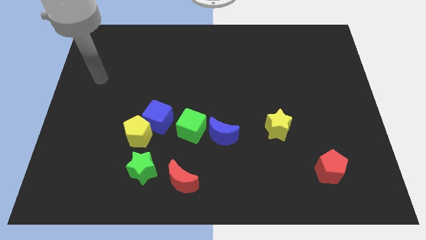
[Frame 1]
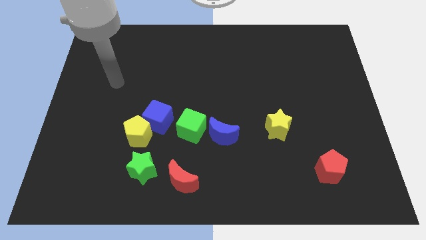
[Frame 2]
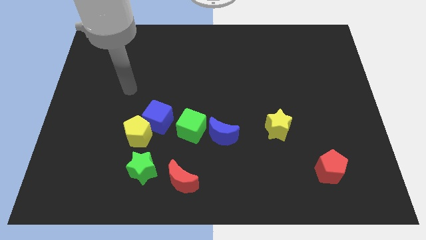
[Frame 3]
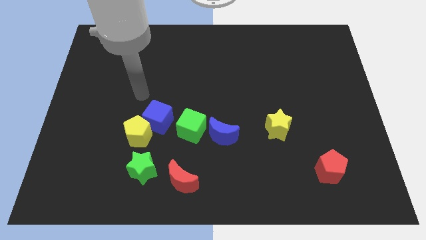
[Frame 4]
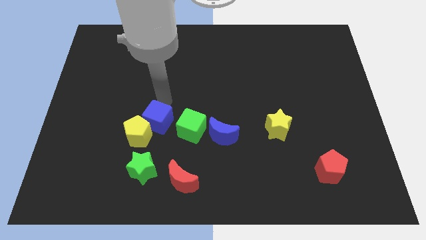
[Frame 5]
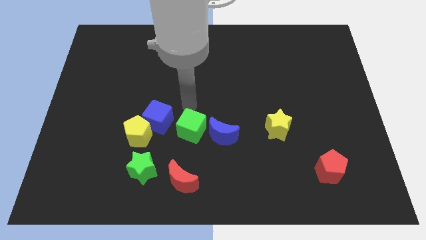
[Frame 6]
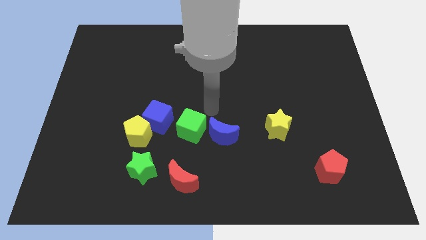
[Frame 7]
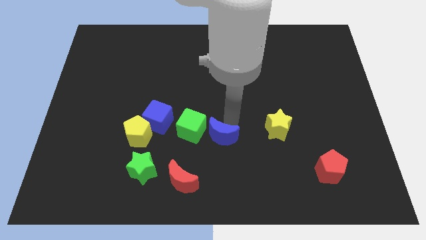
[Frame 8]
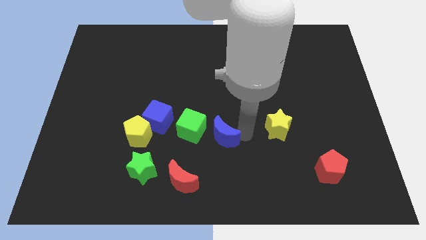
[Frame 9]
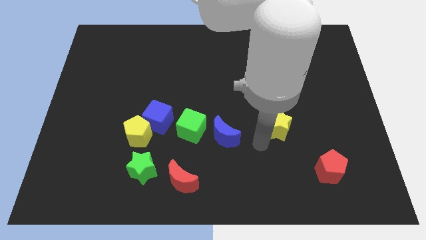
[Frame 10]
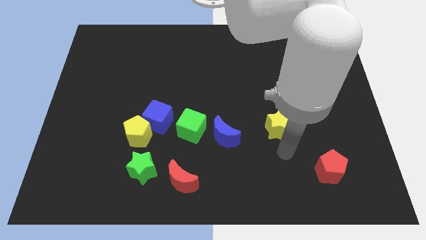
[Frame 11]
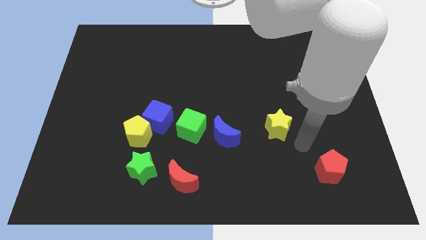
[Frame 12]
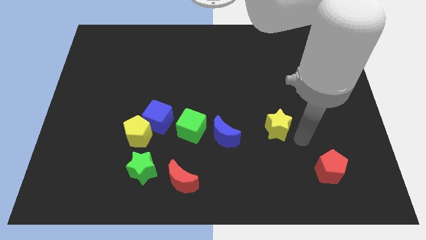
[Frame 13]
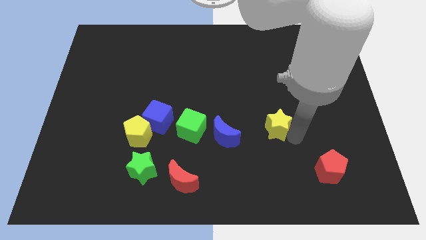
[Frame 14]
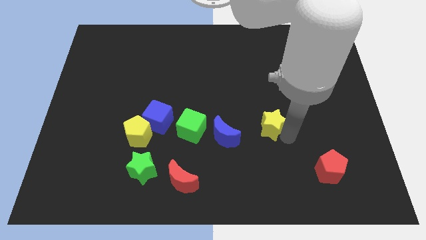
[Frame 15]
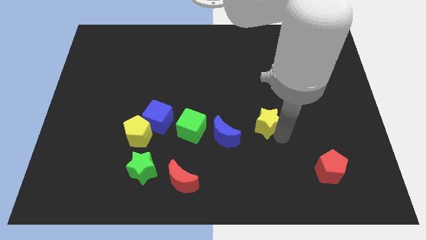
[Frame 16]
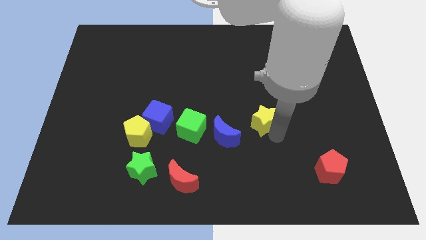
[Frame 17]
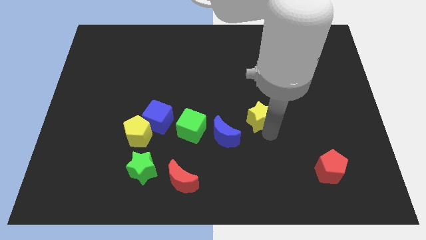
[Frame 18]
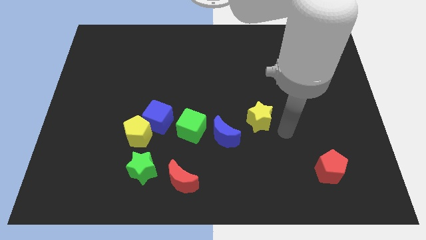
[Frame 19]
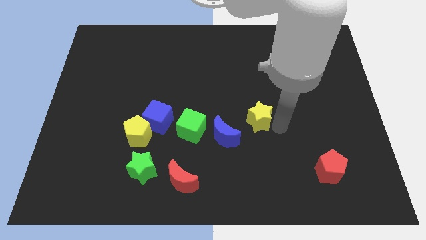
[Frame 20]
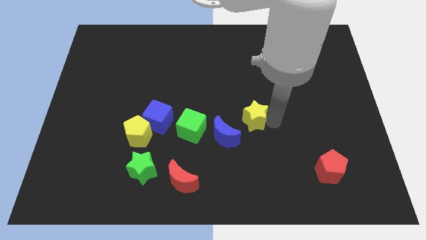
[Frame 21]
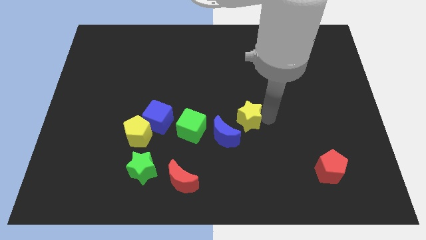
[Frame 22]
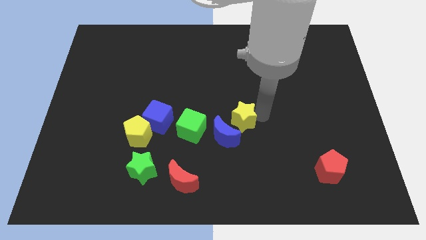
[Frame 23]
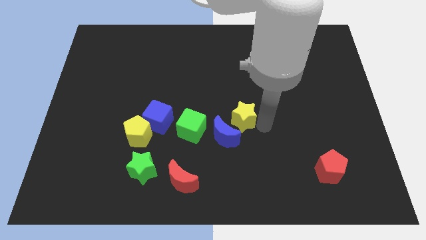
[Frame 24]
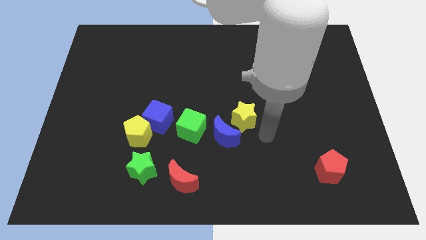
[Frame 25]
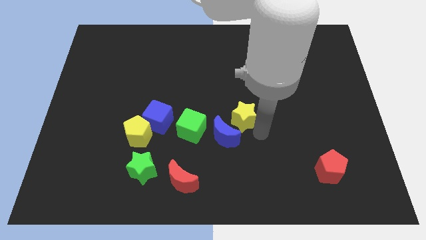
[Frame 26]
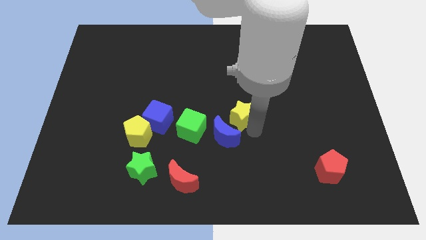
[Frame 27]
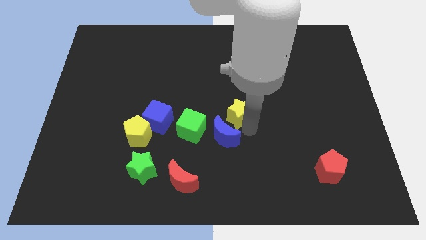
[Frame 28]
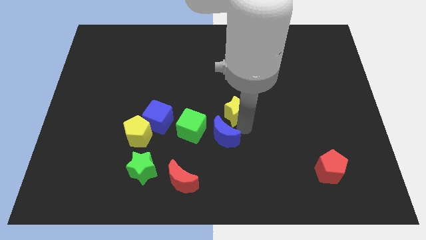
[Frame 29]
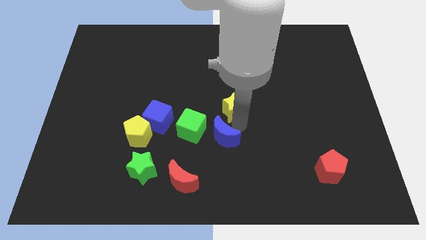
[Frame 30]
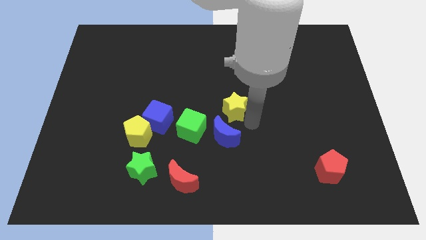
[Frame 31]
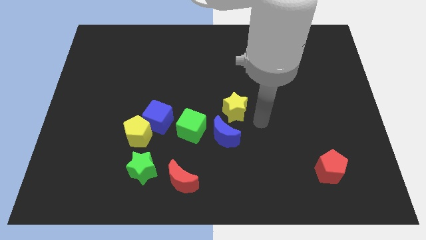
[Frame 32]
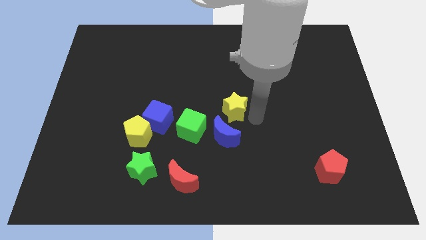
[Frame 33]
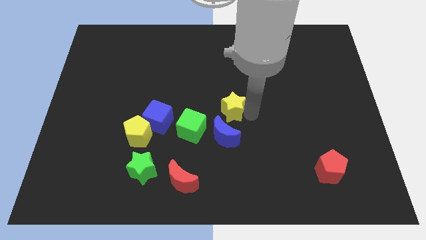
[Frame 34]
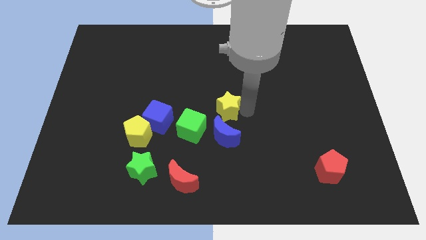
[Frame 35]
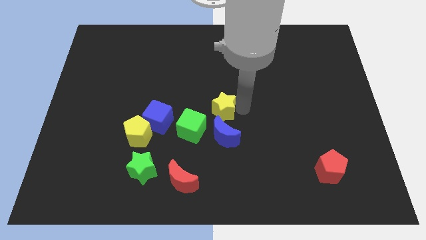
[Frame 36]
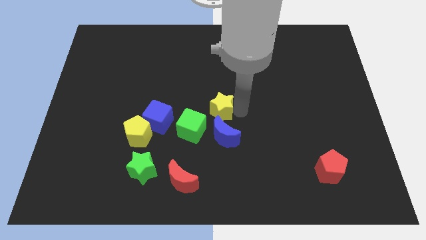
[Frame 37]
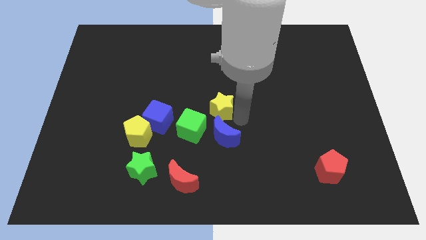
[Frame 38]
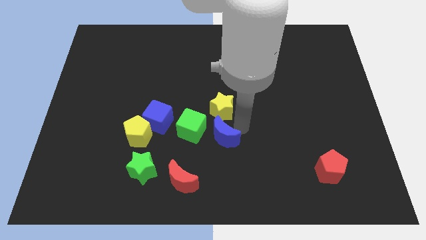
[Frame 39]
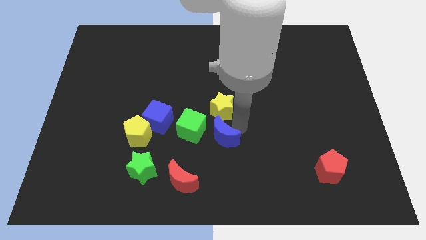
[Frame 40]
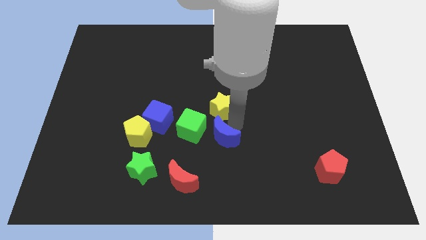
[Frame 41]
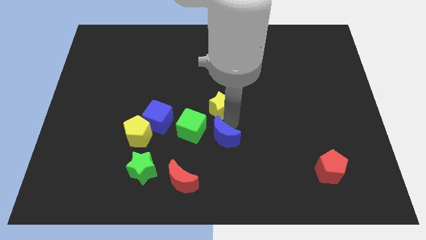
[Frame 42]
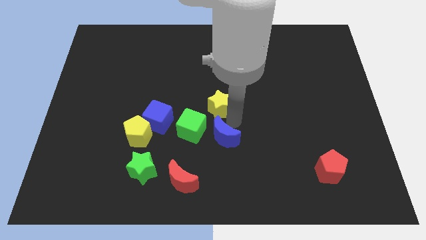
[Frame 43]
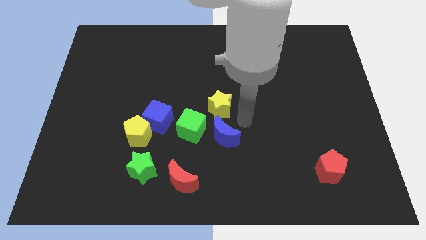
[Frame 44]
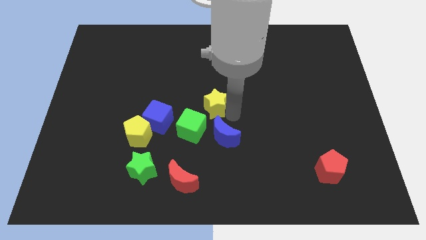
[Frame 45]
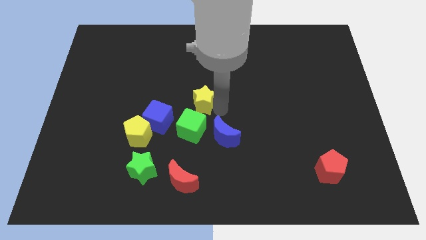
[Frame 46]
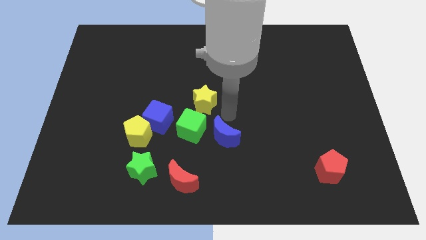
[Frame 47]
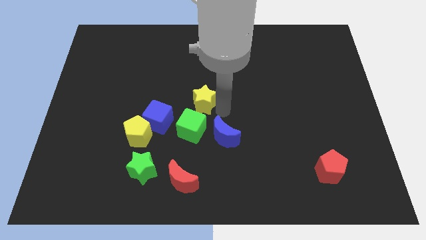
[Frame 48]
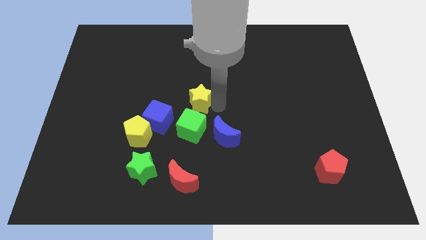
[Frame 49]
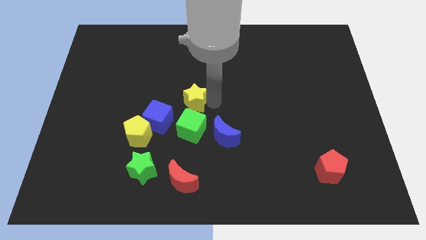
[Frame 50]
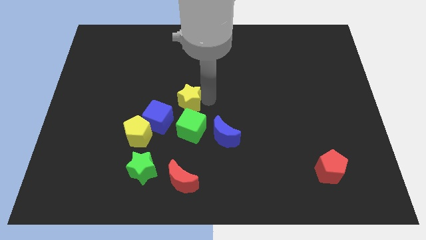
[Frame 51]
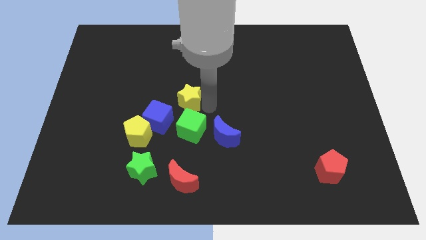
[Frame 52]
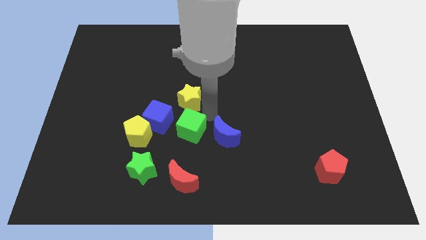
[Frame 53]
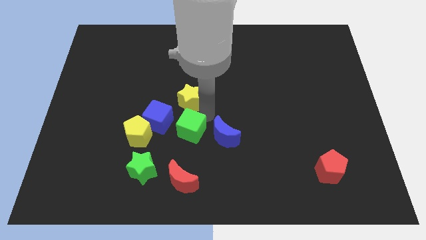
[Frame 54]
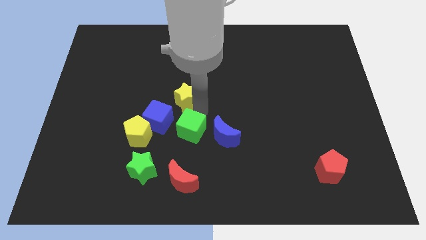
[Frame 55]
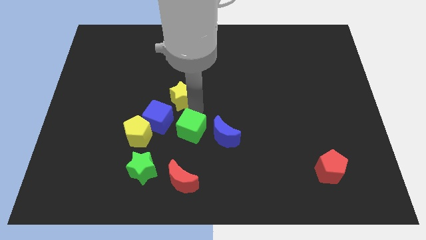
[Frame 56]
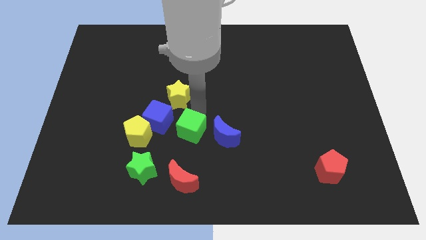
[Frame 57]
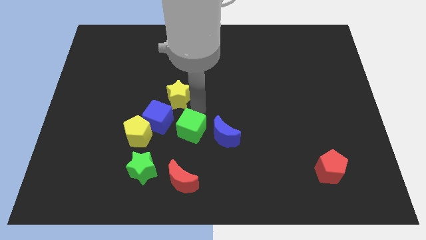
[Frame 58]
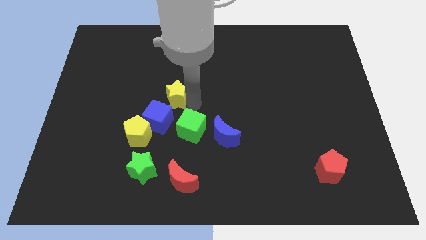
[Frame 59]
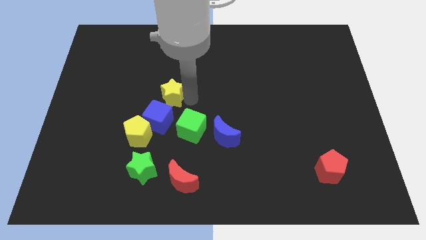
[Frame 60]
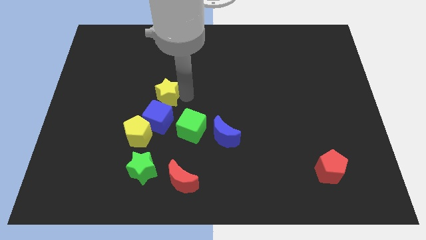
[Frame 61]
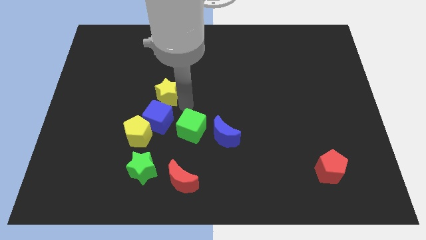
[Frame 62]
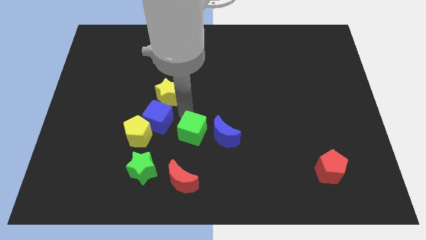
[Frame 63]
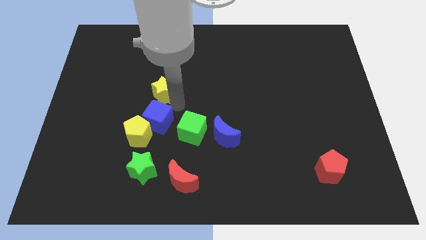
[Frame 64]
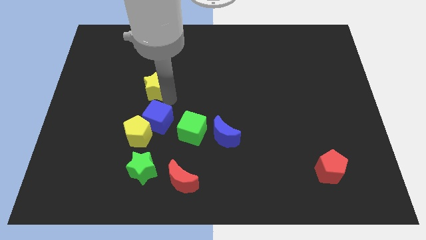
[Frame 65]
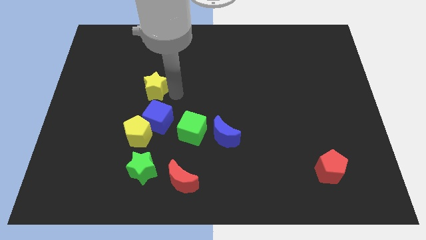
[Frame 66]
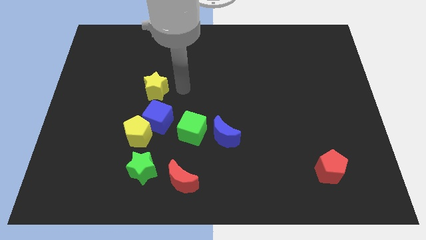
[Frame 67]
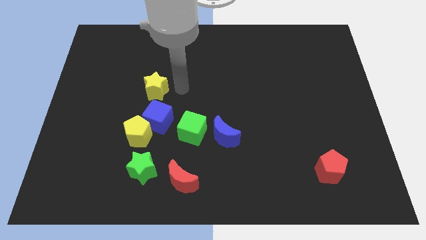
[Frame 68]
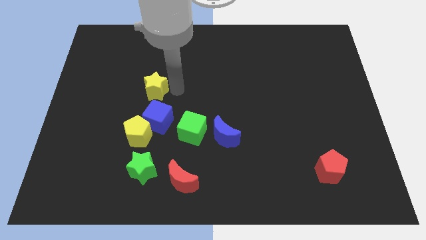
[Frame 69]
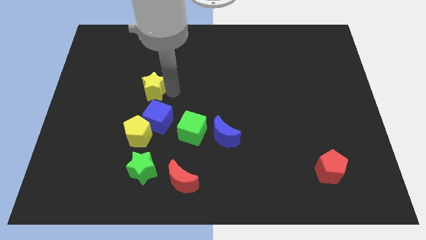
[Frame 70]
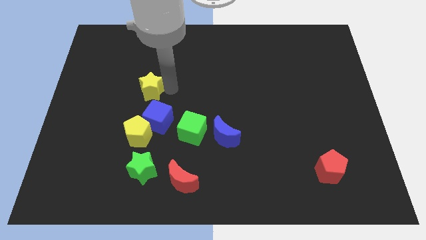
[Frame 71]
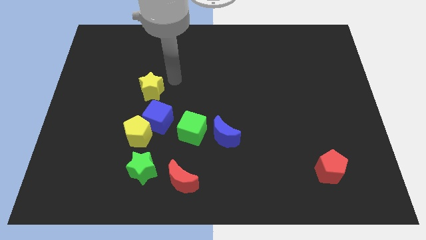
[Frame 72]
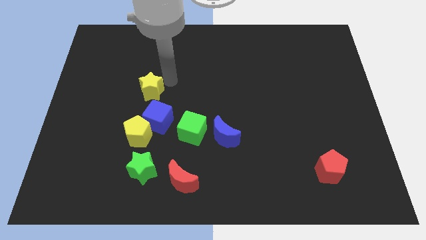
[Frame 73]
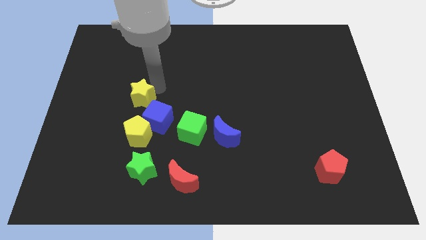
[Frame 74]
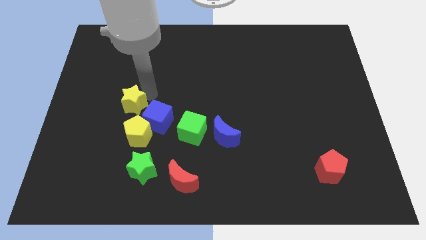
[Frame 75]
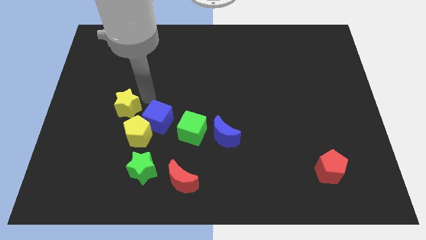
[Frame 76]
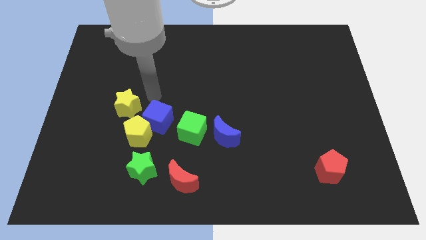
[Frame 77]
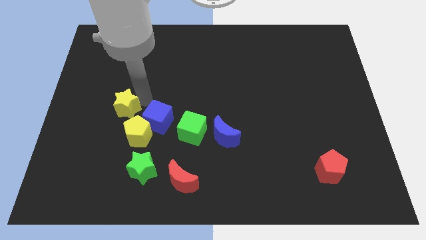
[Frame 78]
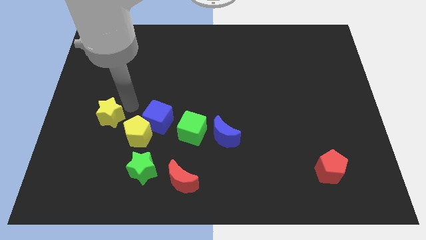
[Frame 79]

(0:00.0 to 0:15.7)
put the yellow star just left of the yellow pentagon
